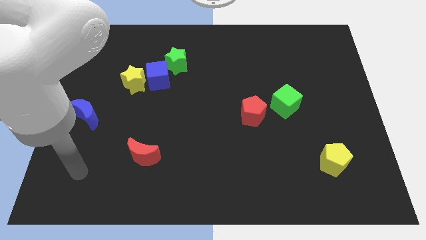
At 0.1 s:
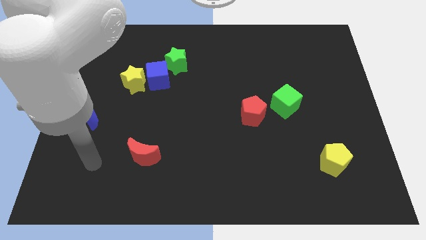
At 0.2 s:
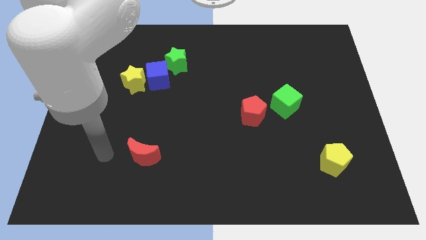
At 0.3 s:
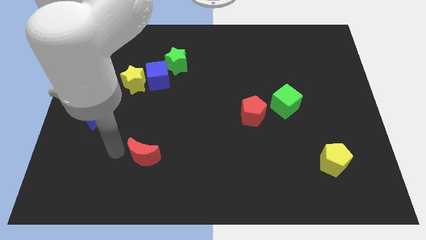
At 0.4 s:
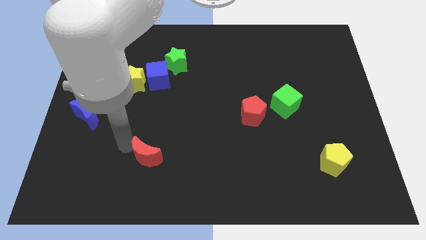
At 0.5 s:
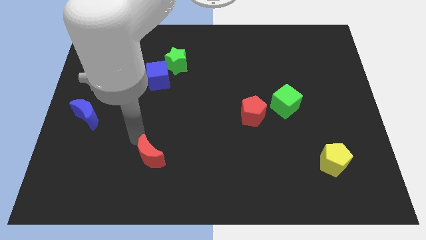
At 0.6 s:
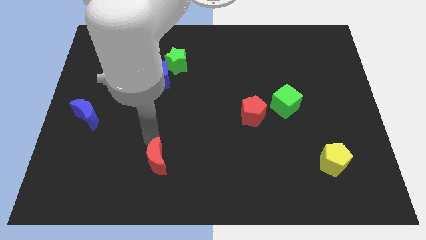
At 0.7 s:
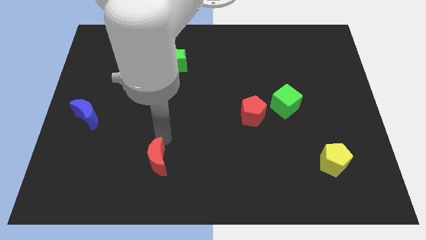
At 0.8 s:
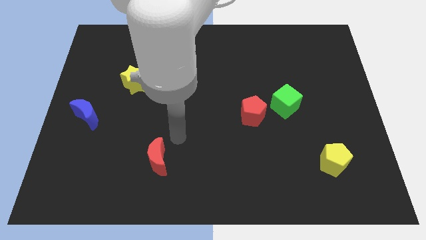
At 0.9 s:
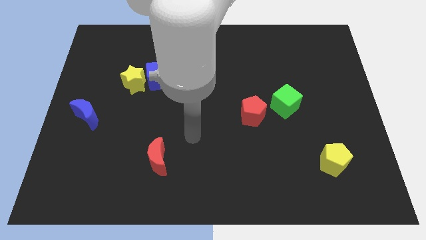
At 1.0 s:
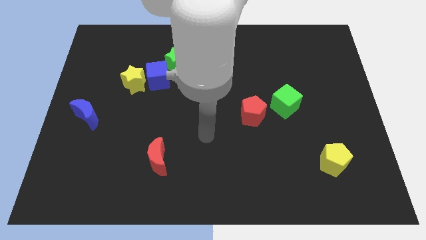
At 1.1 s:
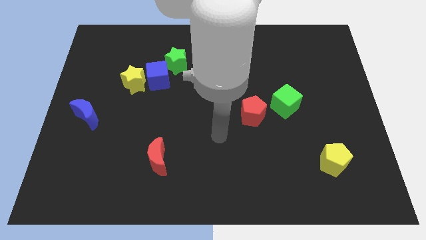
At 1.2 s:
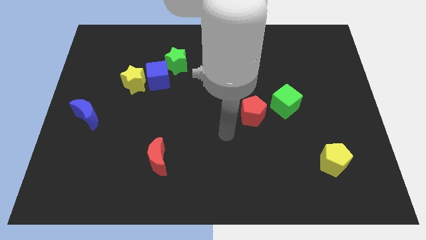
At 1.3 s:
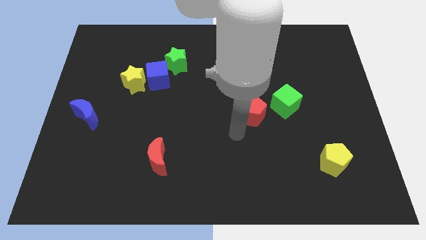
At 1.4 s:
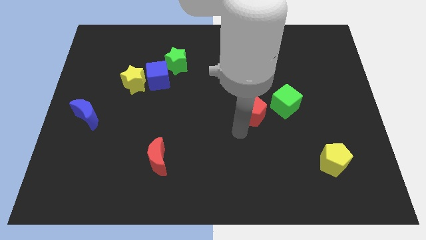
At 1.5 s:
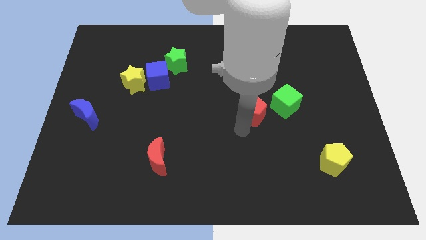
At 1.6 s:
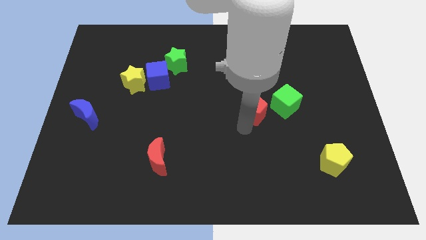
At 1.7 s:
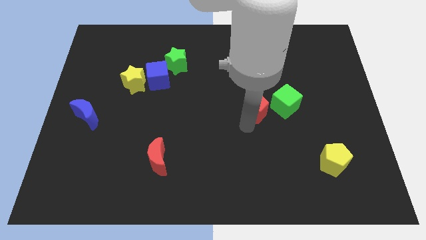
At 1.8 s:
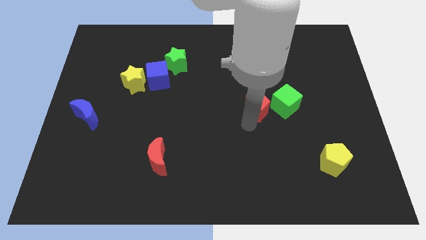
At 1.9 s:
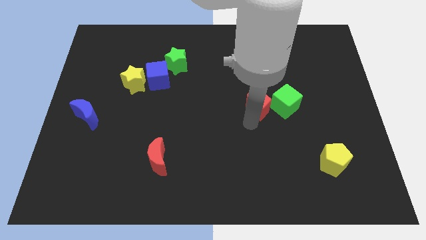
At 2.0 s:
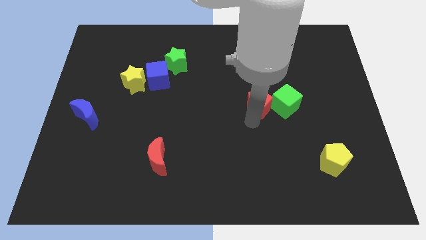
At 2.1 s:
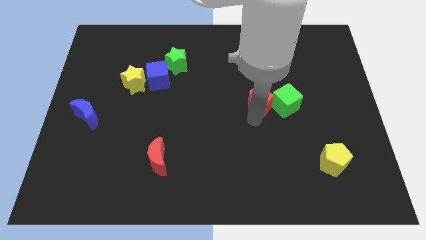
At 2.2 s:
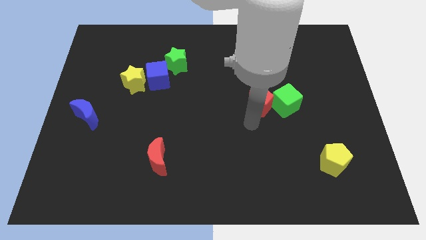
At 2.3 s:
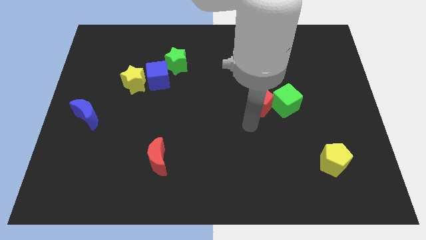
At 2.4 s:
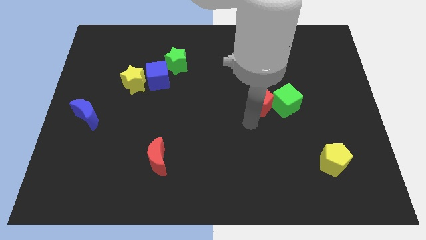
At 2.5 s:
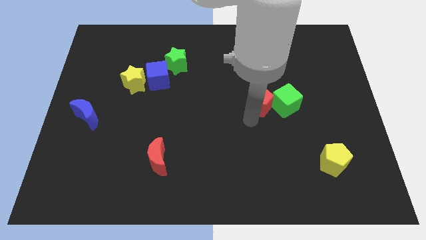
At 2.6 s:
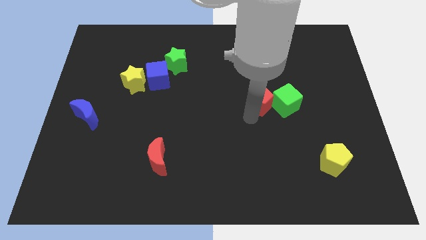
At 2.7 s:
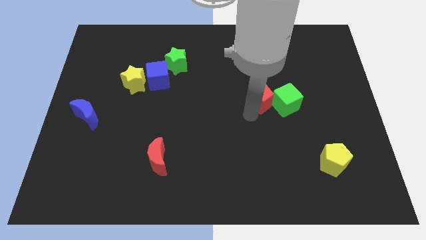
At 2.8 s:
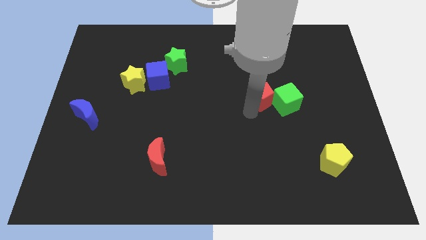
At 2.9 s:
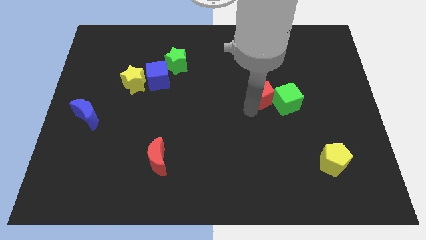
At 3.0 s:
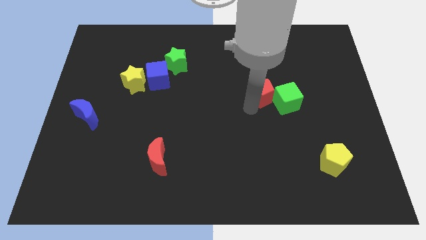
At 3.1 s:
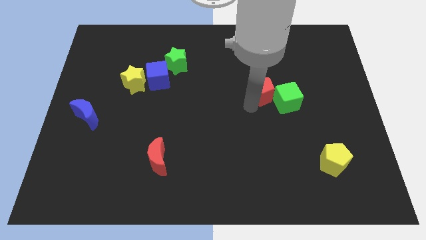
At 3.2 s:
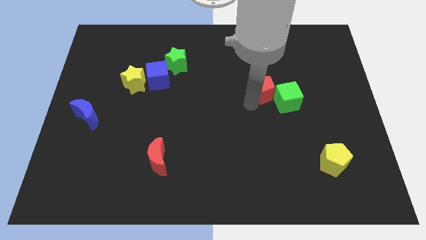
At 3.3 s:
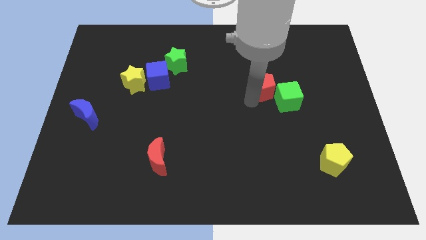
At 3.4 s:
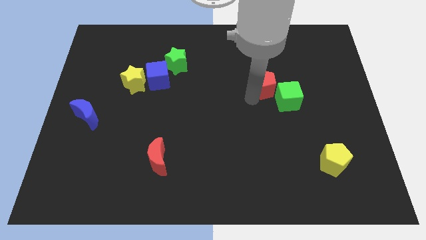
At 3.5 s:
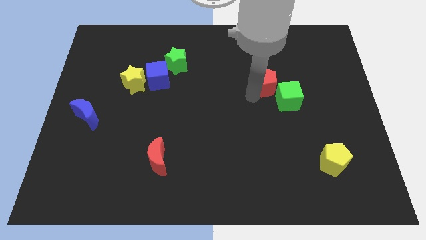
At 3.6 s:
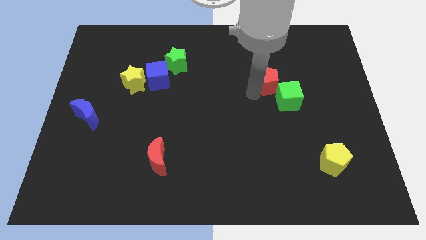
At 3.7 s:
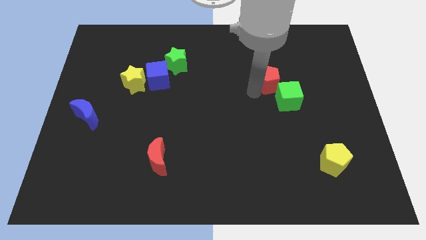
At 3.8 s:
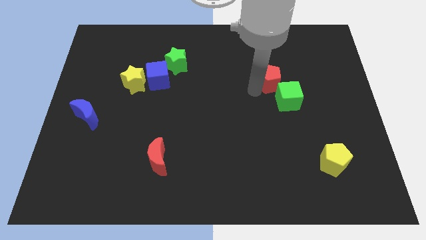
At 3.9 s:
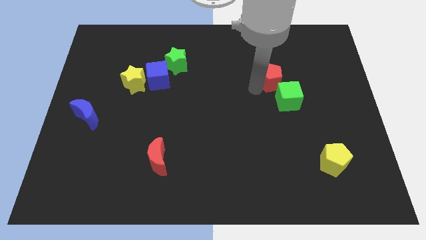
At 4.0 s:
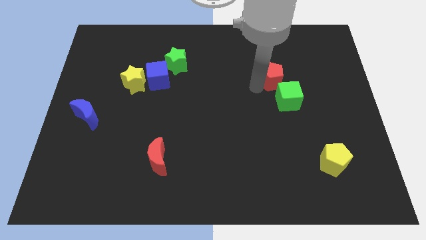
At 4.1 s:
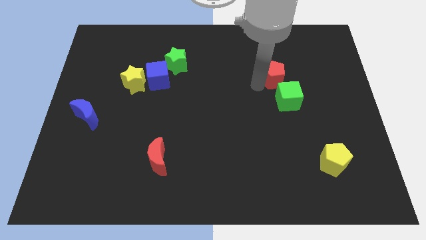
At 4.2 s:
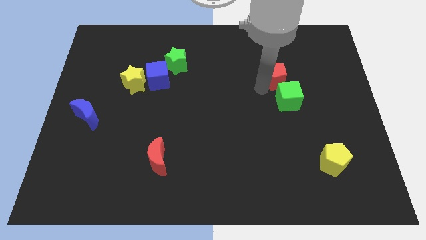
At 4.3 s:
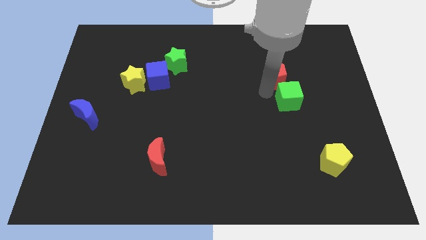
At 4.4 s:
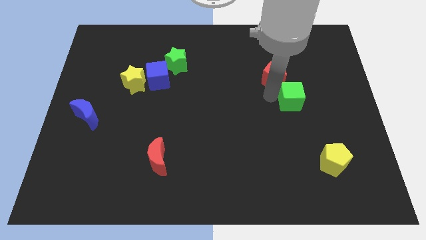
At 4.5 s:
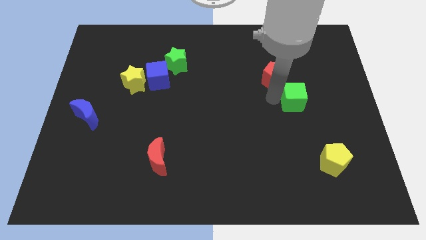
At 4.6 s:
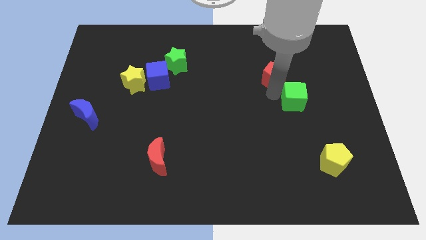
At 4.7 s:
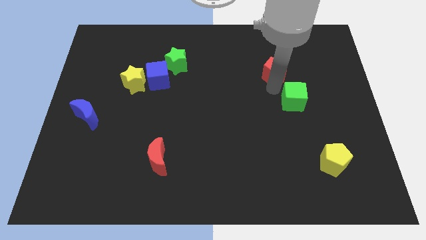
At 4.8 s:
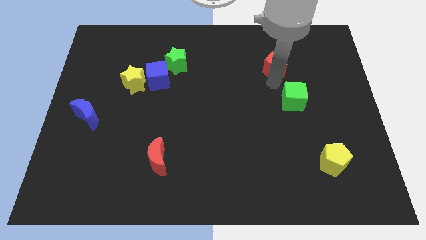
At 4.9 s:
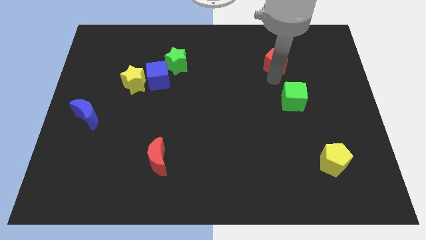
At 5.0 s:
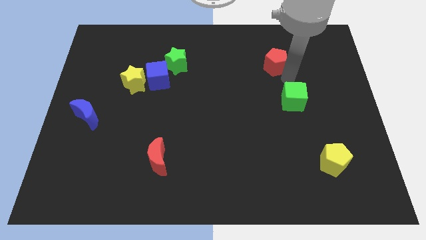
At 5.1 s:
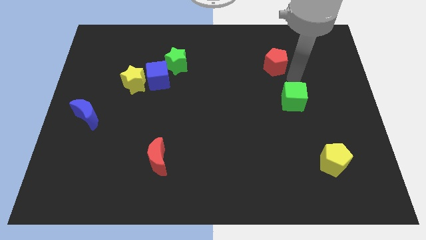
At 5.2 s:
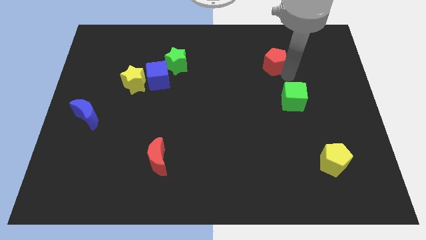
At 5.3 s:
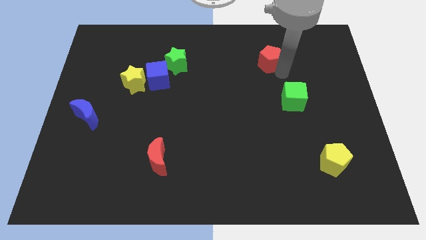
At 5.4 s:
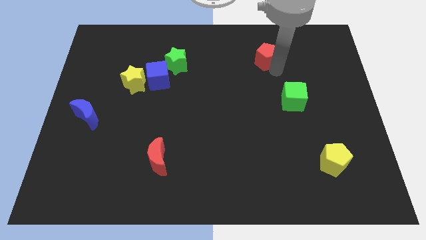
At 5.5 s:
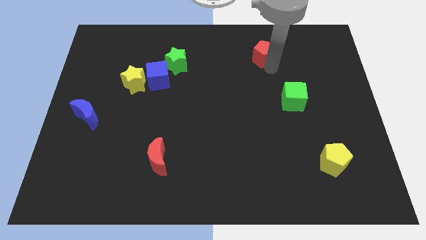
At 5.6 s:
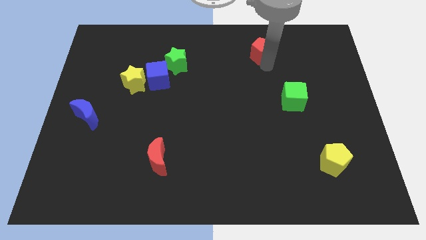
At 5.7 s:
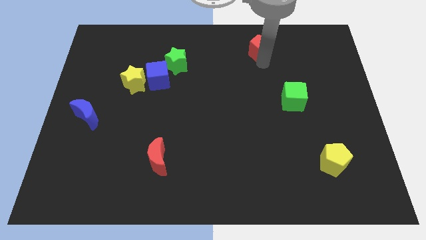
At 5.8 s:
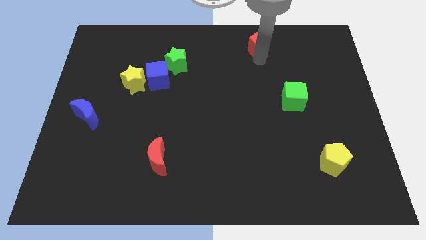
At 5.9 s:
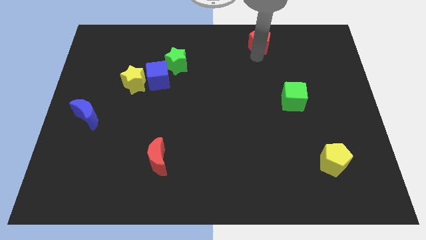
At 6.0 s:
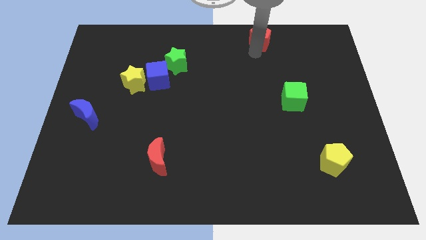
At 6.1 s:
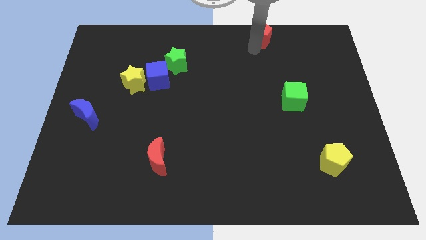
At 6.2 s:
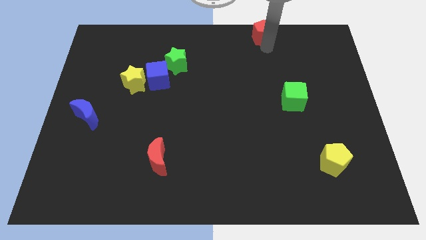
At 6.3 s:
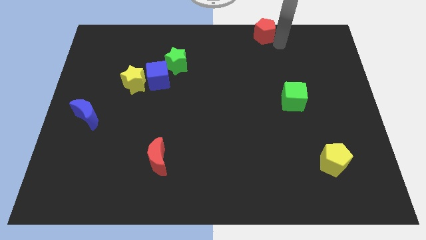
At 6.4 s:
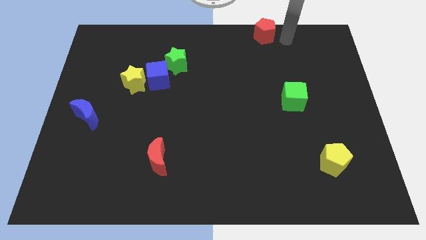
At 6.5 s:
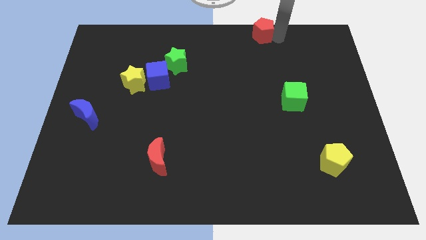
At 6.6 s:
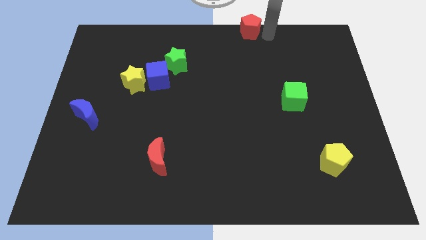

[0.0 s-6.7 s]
push the red pentagon to the towards your base
